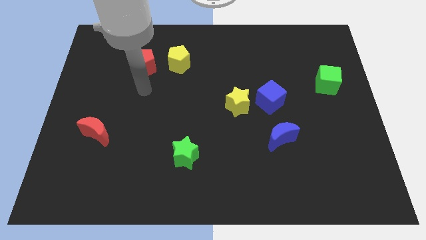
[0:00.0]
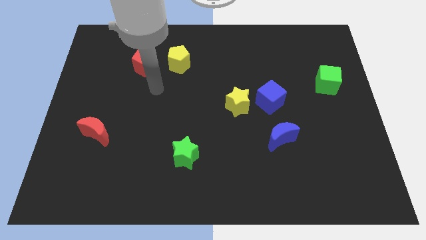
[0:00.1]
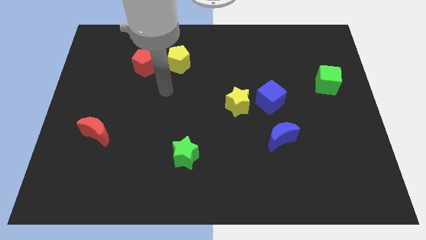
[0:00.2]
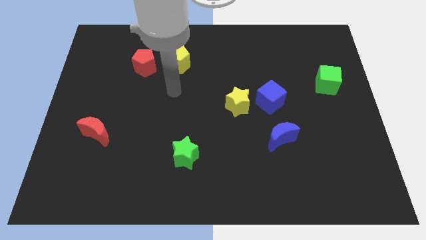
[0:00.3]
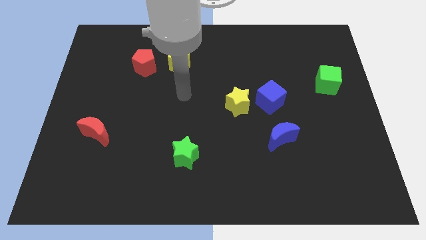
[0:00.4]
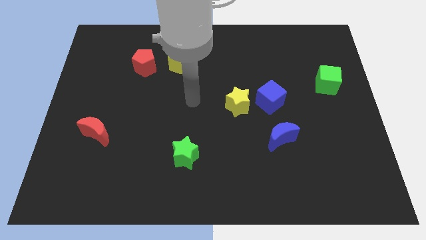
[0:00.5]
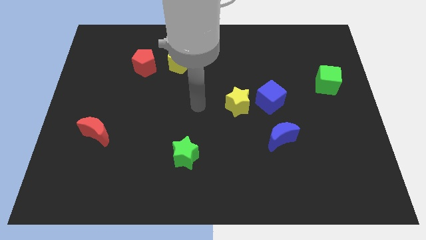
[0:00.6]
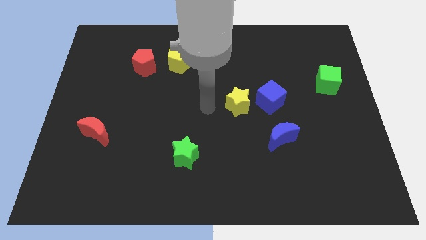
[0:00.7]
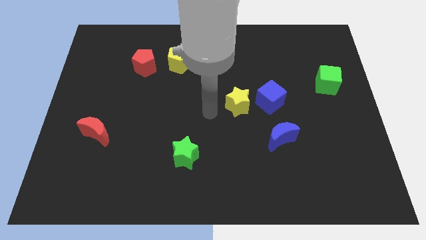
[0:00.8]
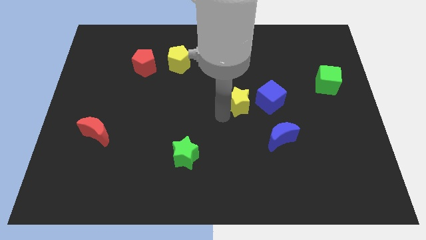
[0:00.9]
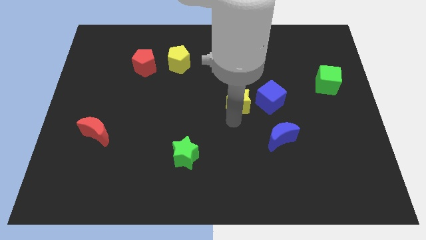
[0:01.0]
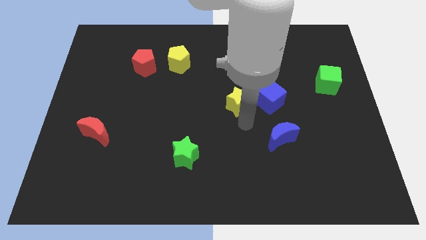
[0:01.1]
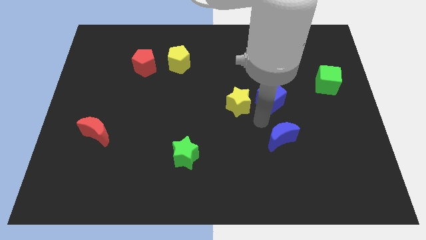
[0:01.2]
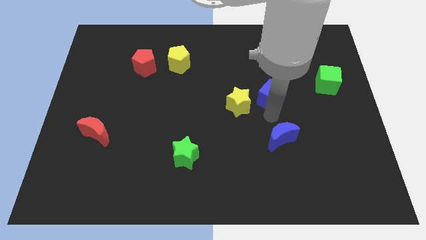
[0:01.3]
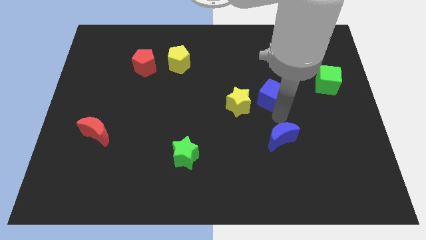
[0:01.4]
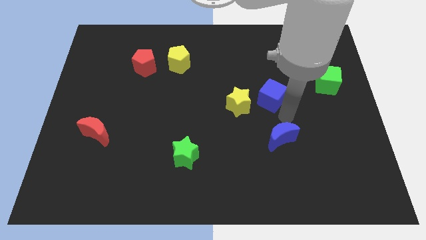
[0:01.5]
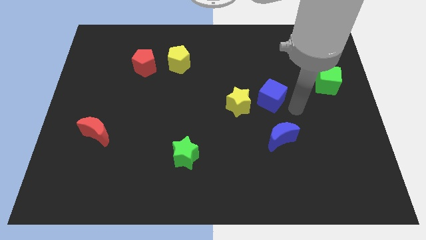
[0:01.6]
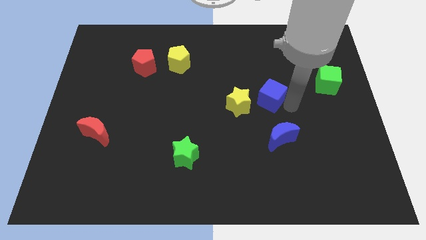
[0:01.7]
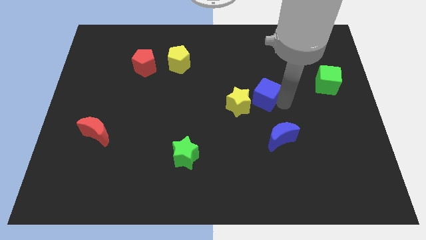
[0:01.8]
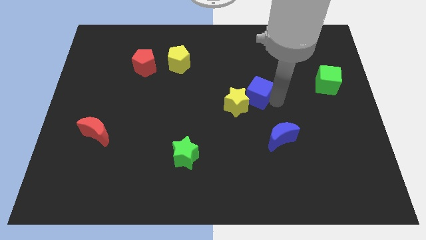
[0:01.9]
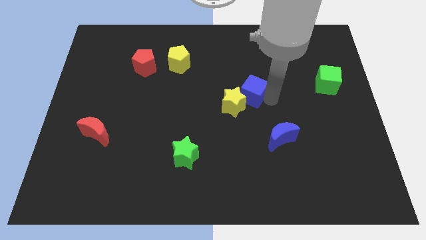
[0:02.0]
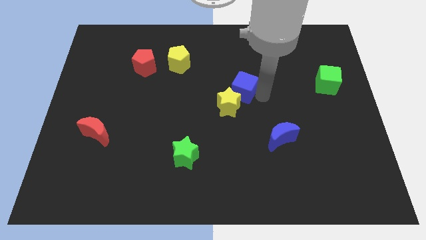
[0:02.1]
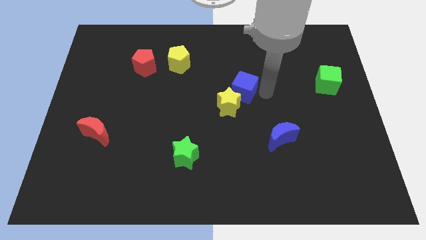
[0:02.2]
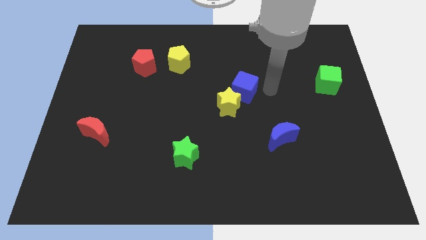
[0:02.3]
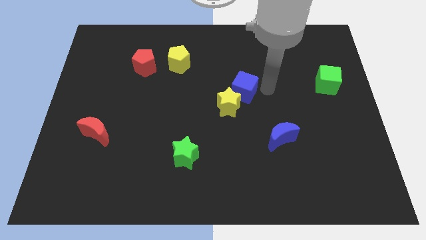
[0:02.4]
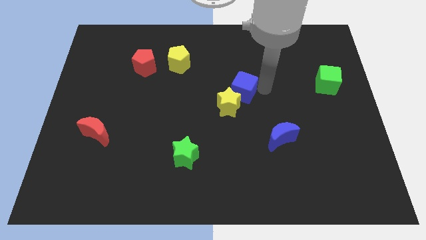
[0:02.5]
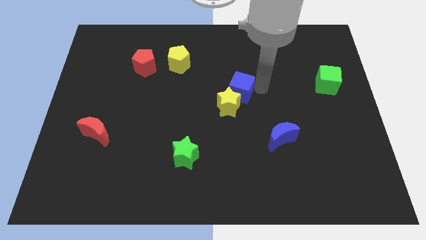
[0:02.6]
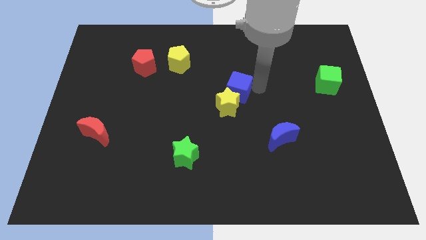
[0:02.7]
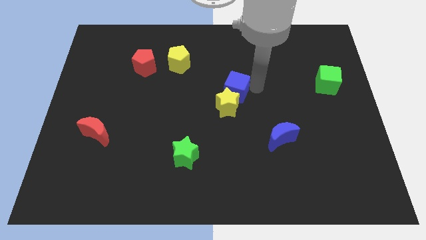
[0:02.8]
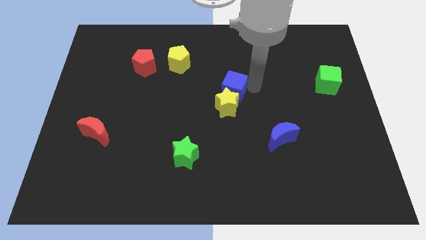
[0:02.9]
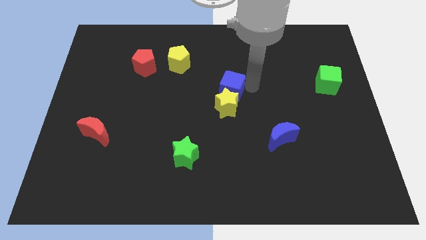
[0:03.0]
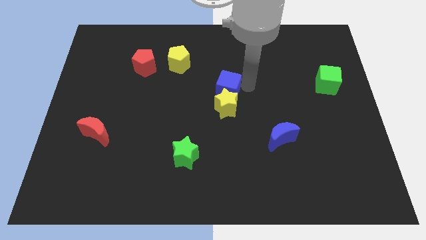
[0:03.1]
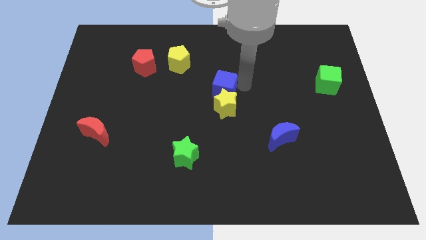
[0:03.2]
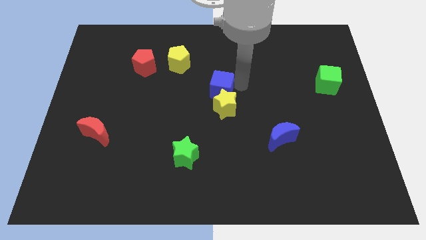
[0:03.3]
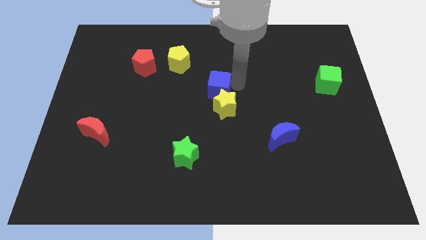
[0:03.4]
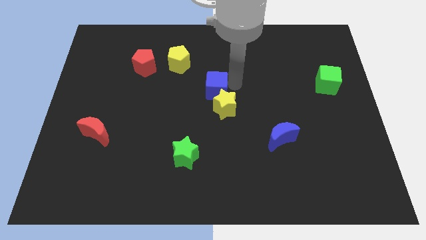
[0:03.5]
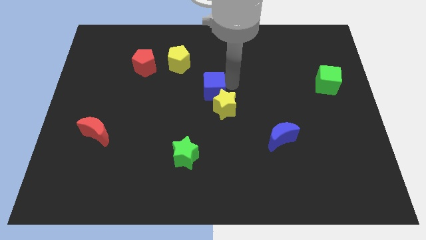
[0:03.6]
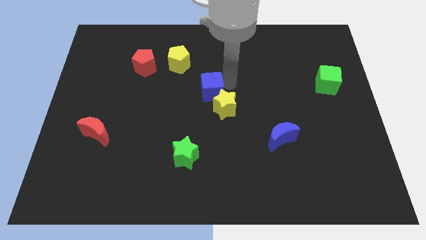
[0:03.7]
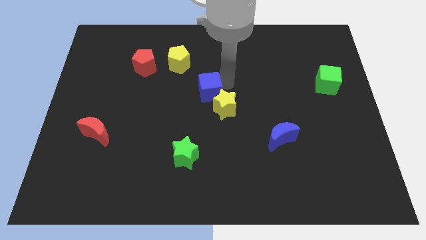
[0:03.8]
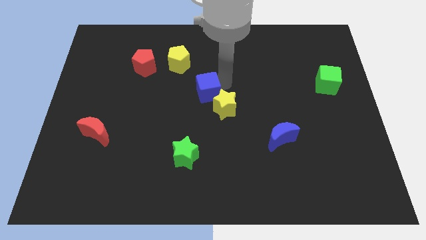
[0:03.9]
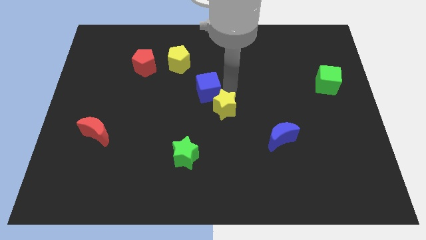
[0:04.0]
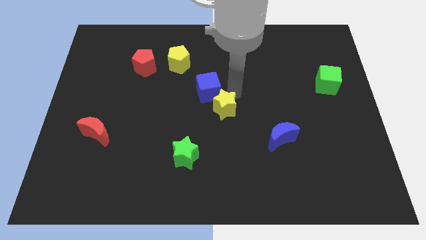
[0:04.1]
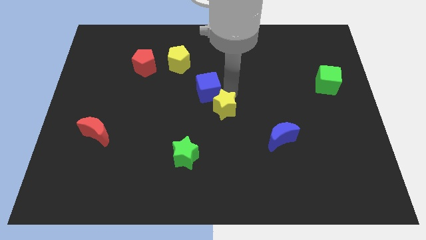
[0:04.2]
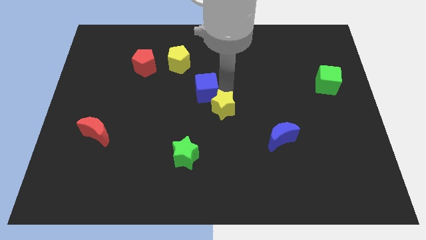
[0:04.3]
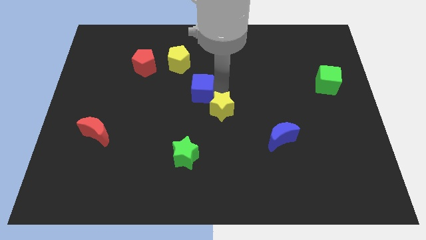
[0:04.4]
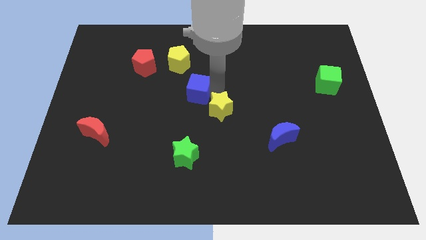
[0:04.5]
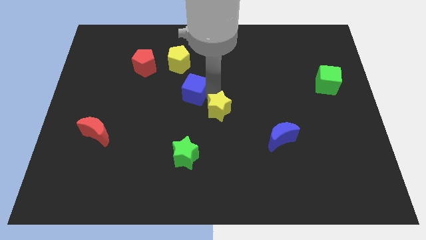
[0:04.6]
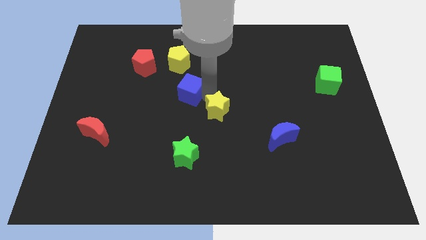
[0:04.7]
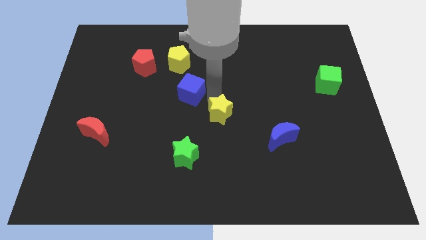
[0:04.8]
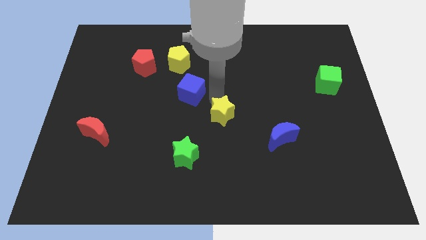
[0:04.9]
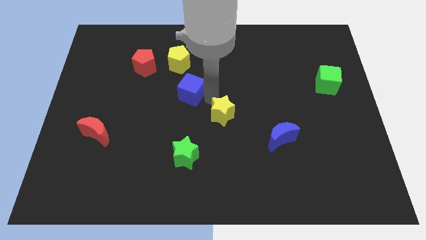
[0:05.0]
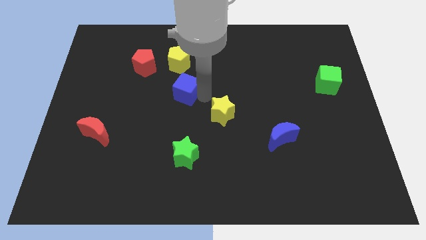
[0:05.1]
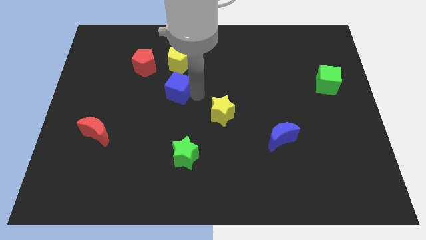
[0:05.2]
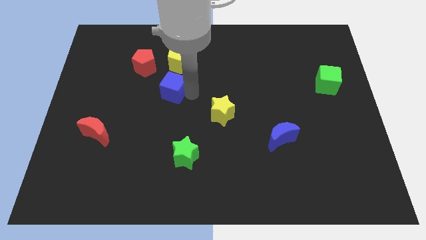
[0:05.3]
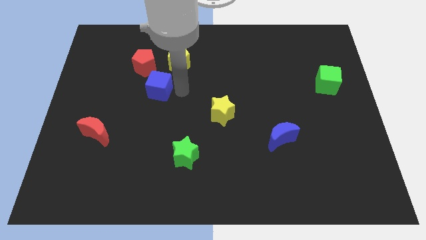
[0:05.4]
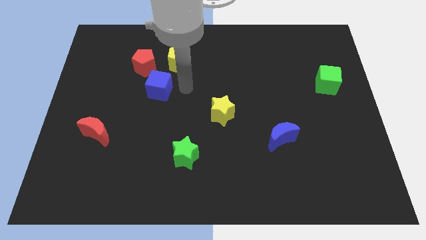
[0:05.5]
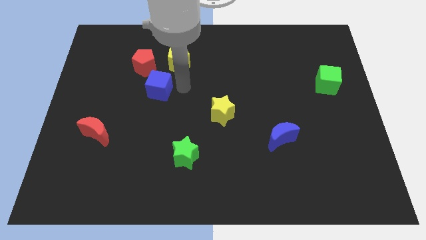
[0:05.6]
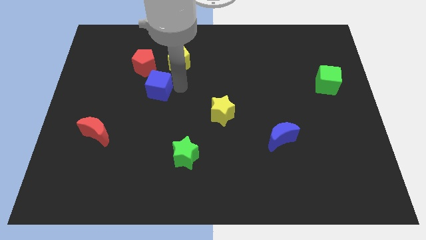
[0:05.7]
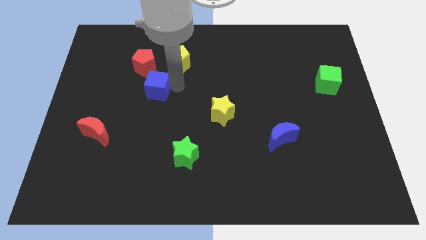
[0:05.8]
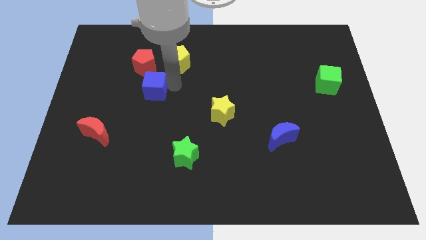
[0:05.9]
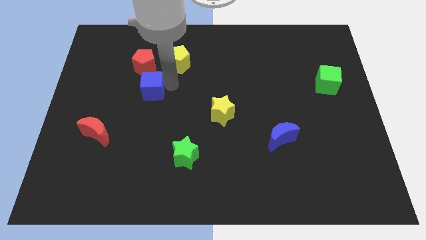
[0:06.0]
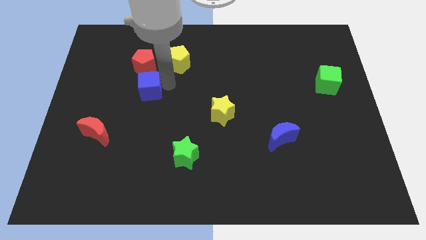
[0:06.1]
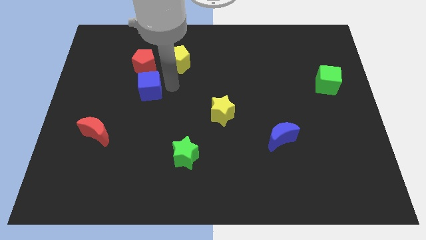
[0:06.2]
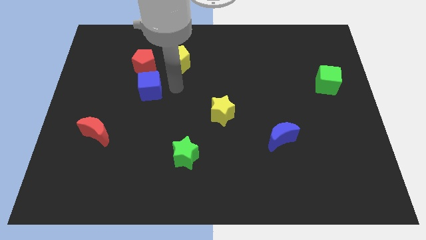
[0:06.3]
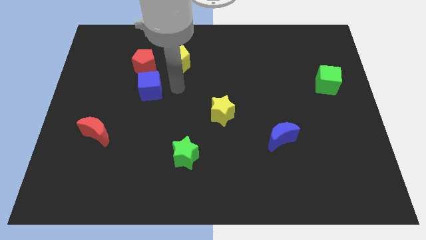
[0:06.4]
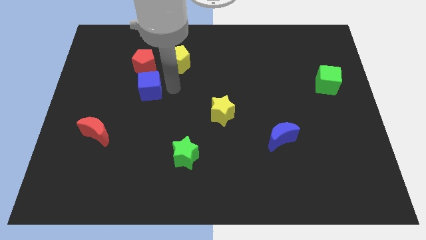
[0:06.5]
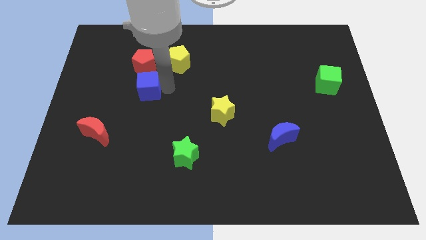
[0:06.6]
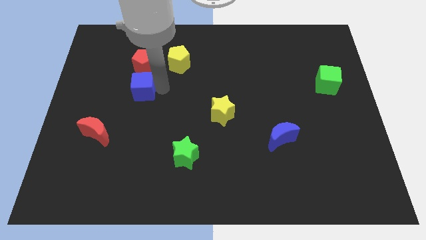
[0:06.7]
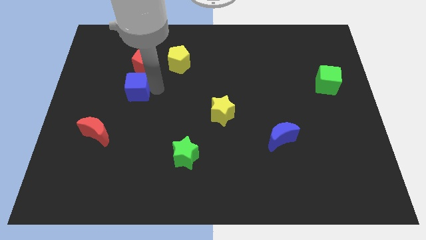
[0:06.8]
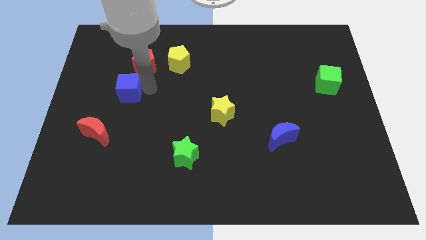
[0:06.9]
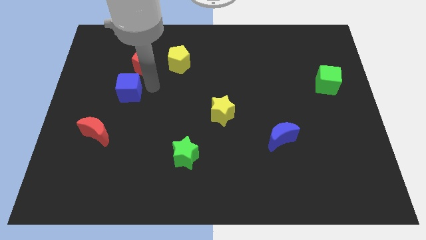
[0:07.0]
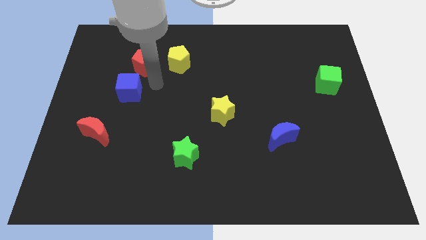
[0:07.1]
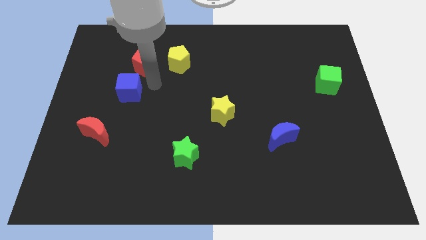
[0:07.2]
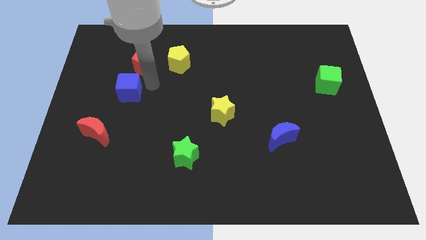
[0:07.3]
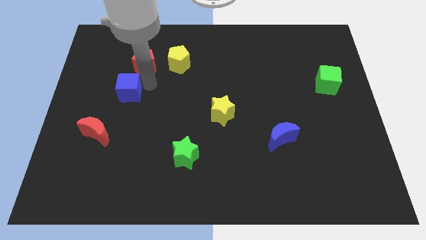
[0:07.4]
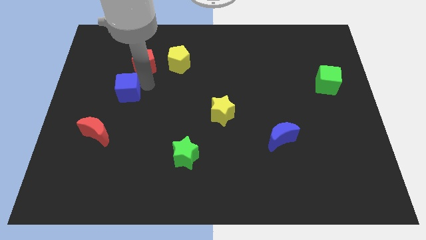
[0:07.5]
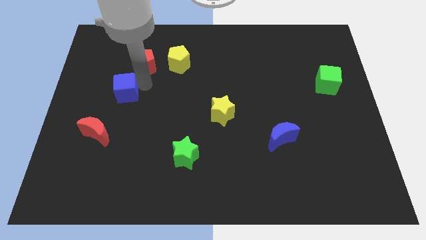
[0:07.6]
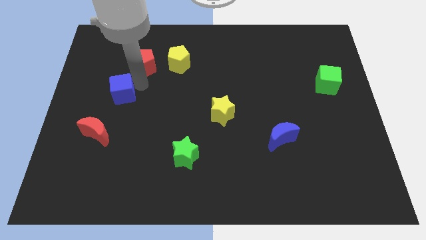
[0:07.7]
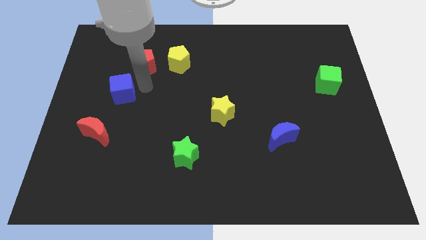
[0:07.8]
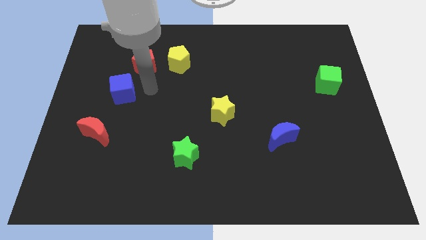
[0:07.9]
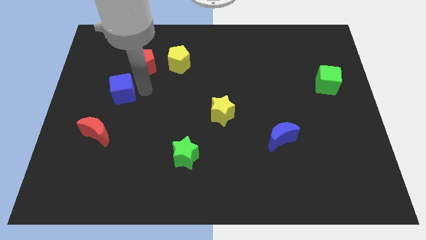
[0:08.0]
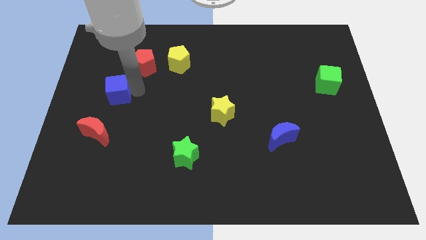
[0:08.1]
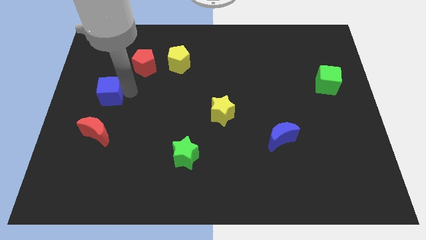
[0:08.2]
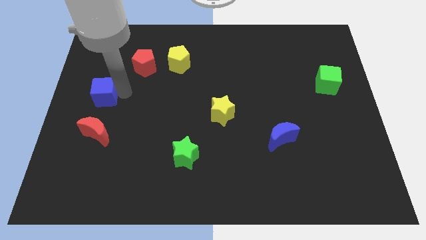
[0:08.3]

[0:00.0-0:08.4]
slide the blue cube to the left side of the board
